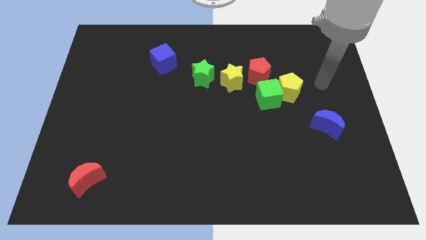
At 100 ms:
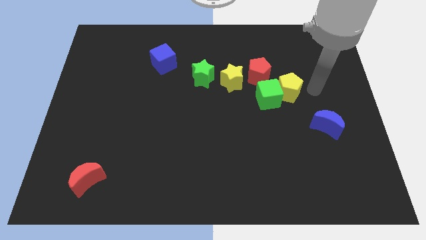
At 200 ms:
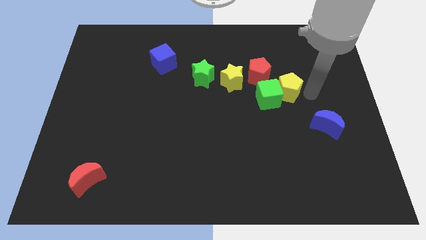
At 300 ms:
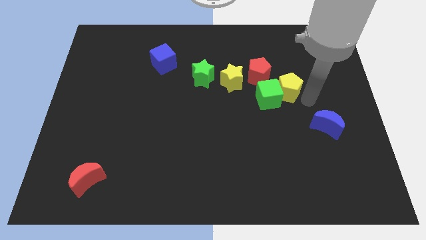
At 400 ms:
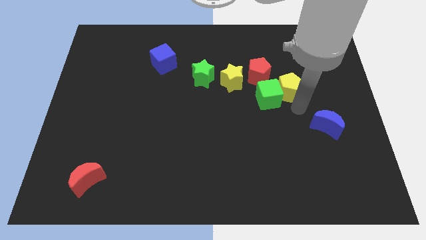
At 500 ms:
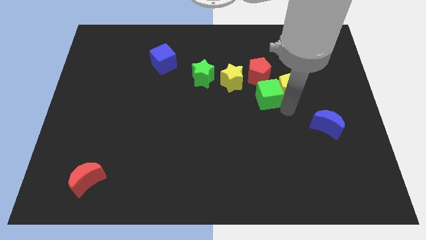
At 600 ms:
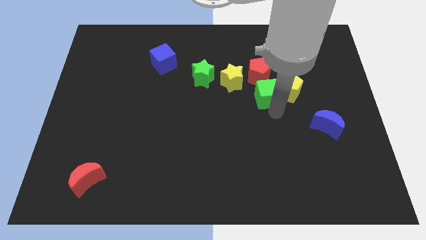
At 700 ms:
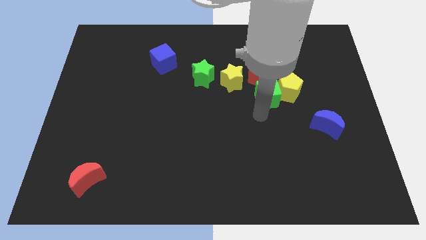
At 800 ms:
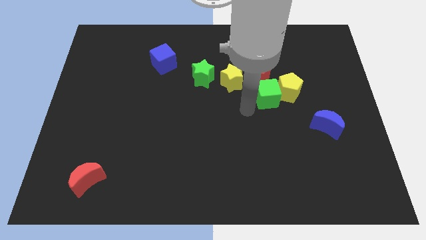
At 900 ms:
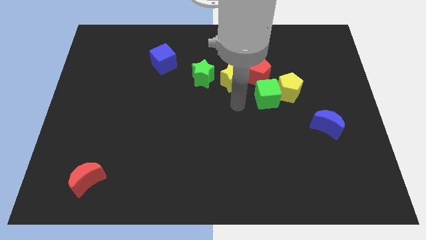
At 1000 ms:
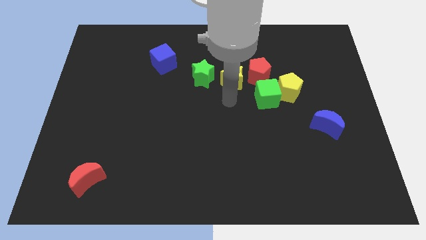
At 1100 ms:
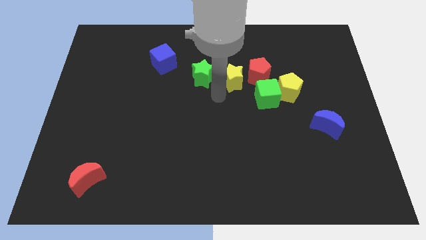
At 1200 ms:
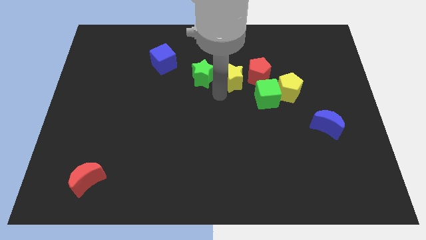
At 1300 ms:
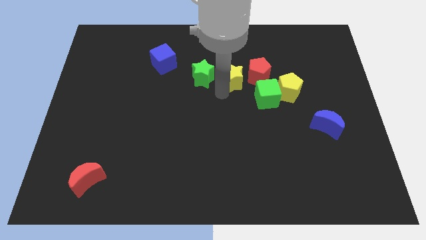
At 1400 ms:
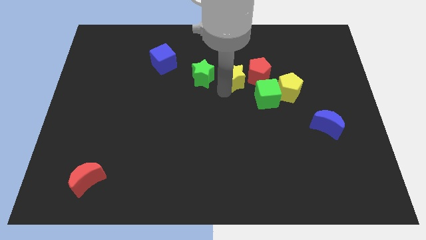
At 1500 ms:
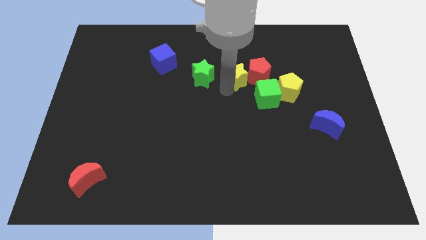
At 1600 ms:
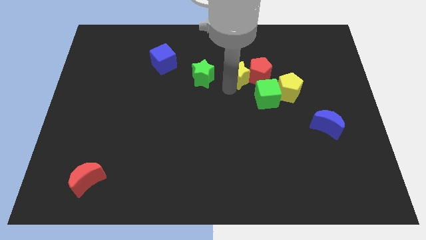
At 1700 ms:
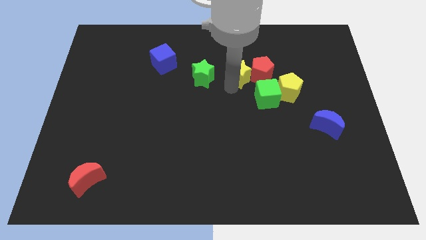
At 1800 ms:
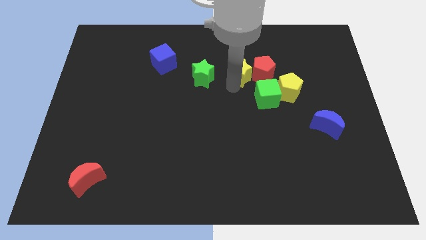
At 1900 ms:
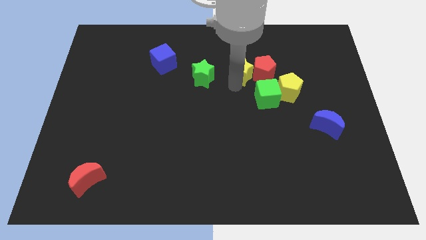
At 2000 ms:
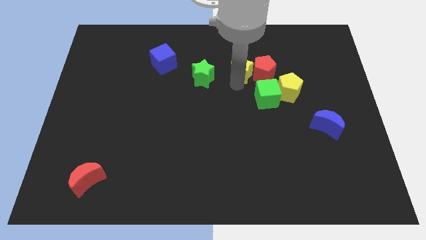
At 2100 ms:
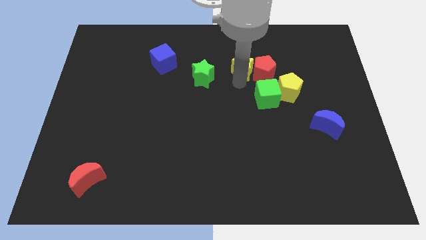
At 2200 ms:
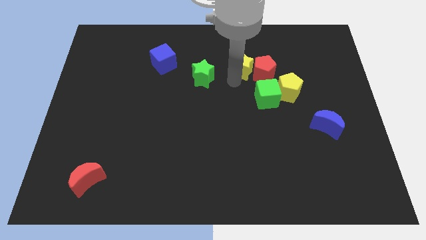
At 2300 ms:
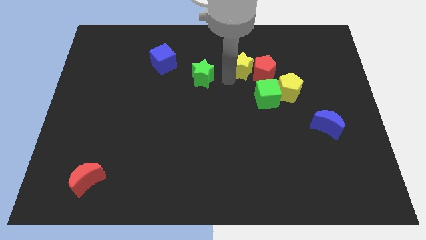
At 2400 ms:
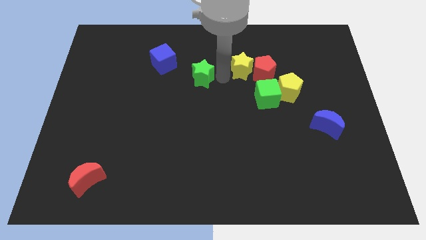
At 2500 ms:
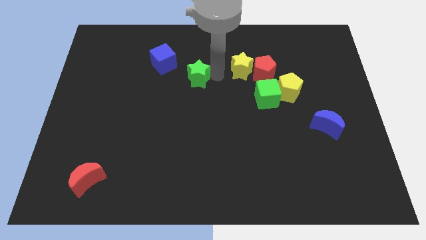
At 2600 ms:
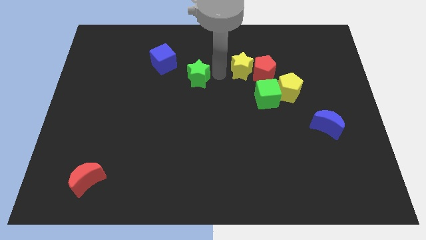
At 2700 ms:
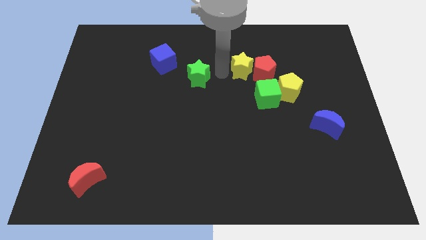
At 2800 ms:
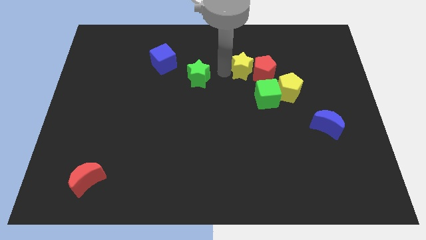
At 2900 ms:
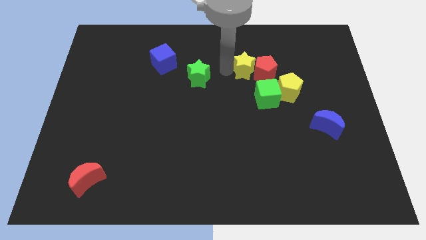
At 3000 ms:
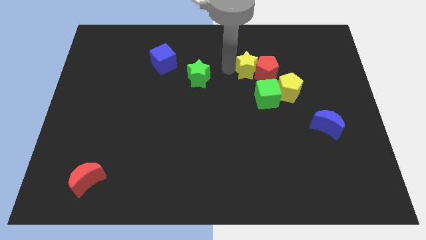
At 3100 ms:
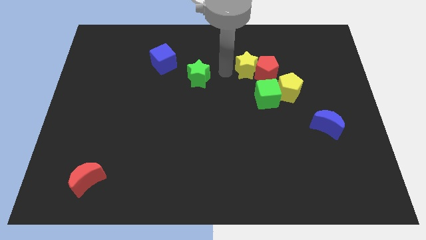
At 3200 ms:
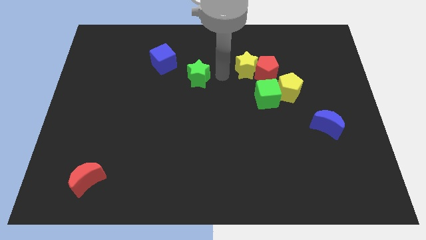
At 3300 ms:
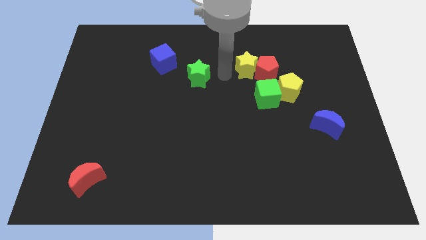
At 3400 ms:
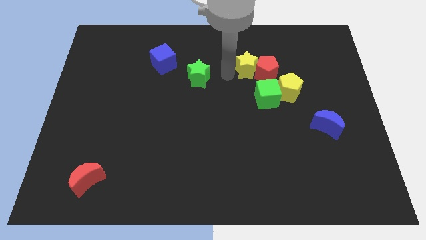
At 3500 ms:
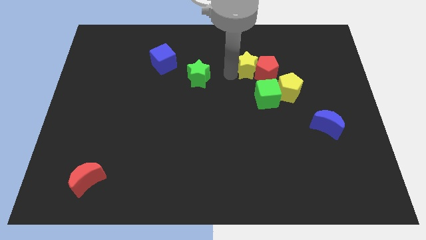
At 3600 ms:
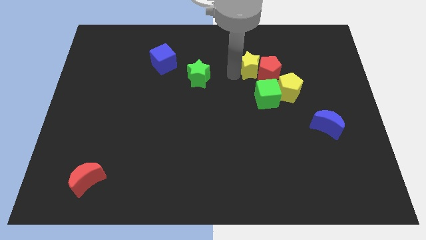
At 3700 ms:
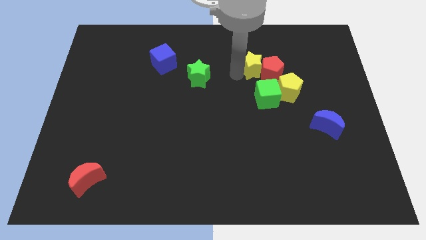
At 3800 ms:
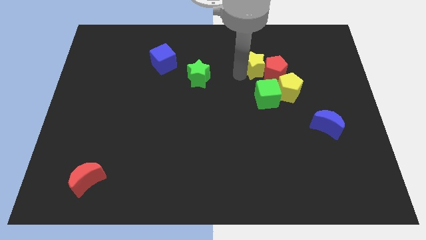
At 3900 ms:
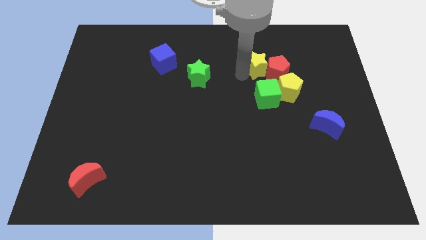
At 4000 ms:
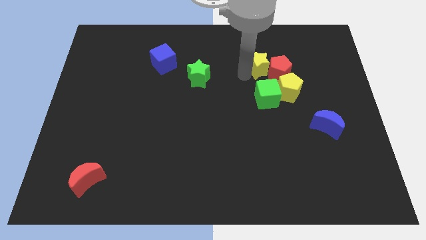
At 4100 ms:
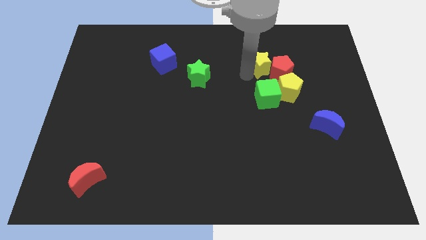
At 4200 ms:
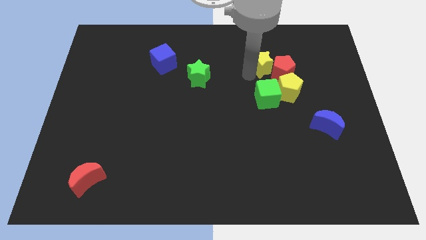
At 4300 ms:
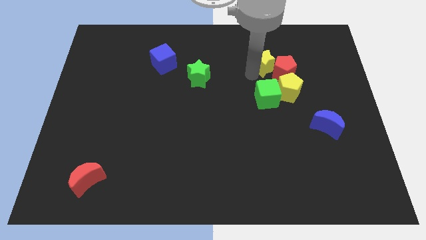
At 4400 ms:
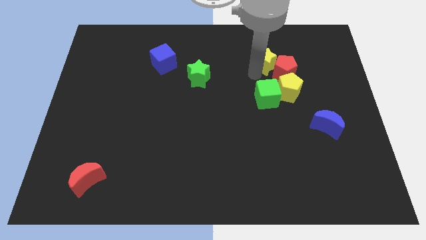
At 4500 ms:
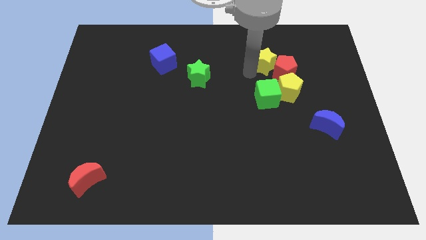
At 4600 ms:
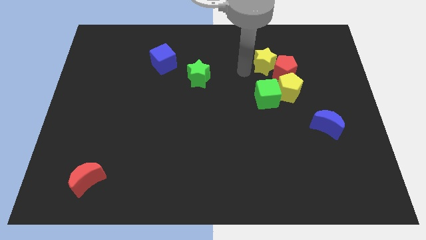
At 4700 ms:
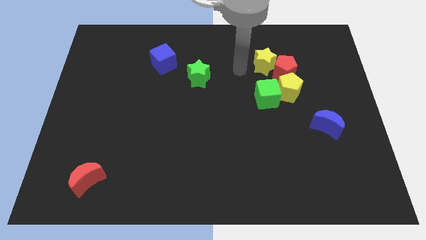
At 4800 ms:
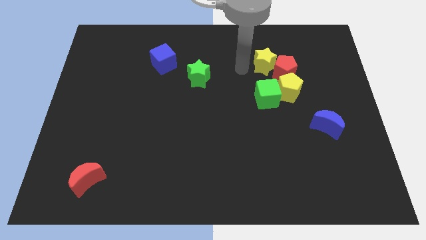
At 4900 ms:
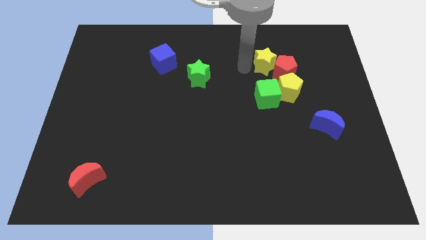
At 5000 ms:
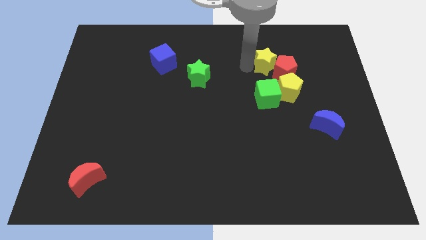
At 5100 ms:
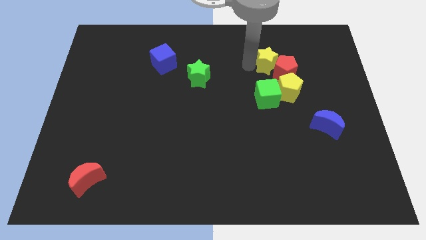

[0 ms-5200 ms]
push the yellow star above the yellow pentagon

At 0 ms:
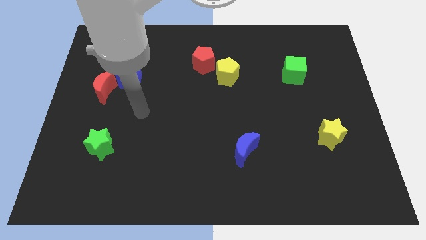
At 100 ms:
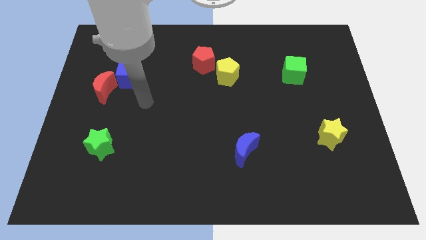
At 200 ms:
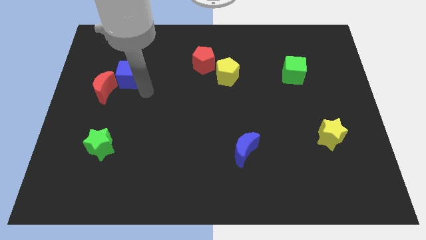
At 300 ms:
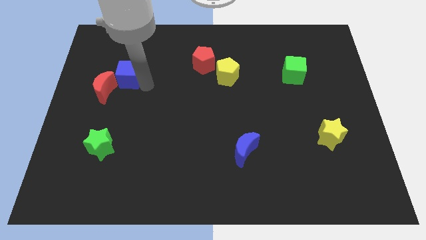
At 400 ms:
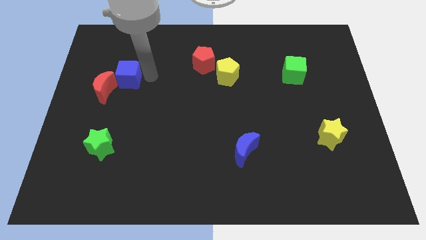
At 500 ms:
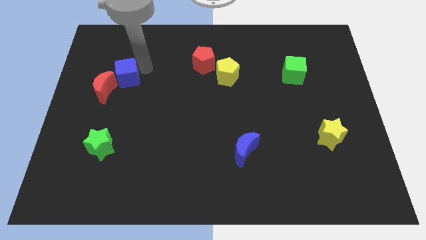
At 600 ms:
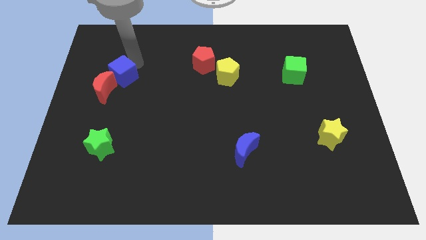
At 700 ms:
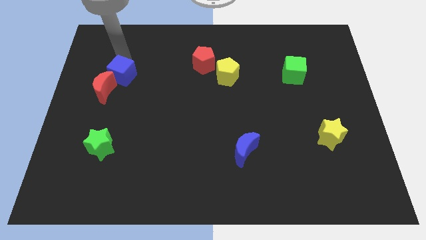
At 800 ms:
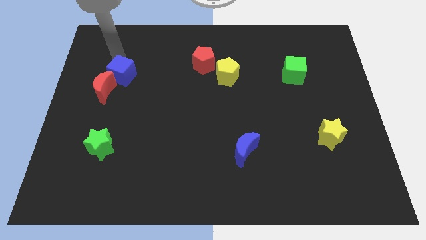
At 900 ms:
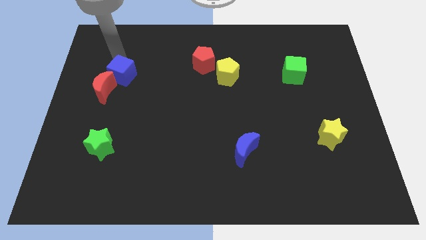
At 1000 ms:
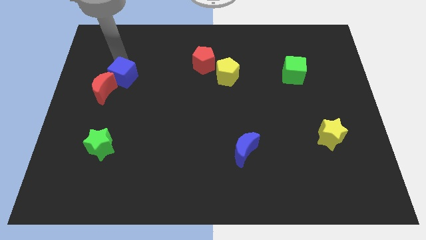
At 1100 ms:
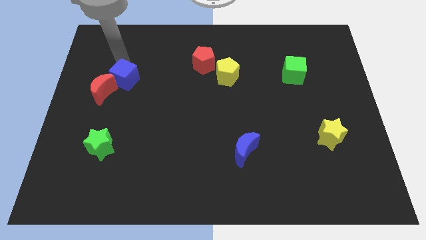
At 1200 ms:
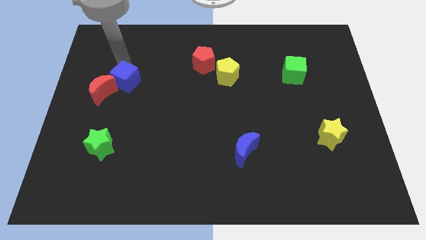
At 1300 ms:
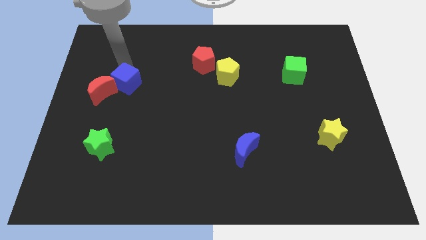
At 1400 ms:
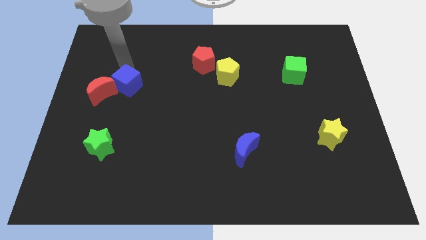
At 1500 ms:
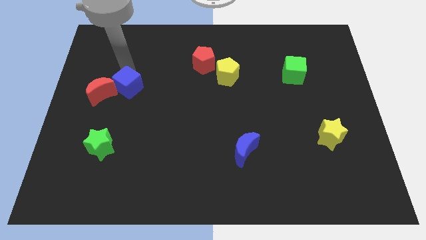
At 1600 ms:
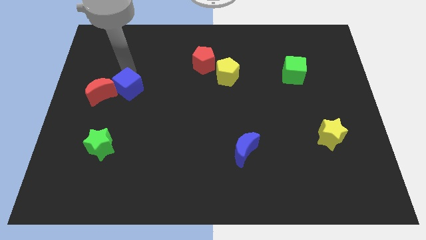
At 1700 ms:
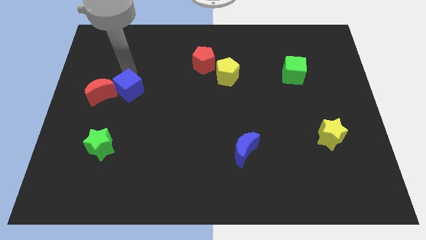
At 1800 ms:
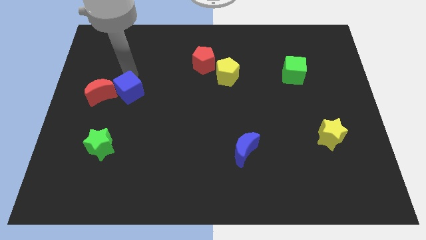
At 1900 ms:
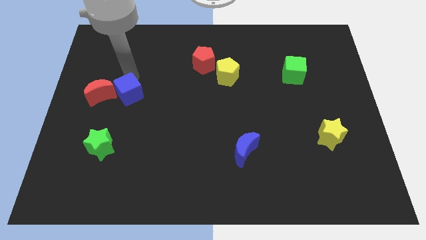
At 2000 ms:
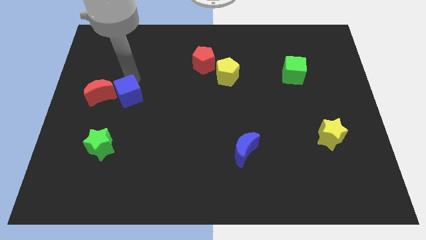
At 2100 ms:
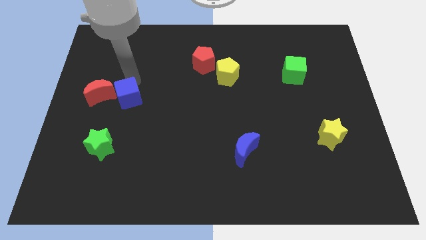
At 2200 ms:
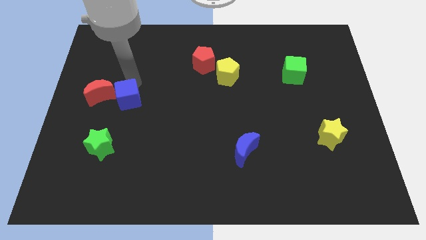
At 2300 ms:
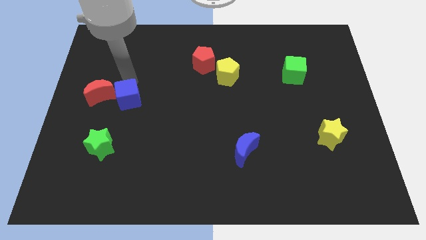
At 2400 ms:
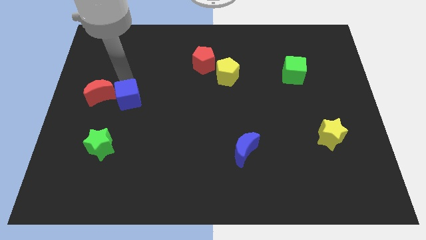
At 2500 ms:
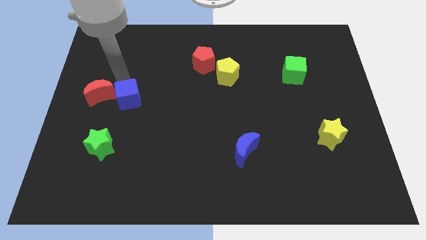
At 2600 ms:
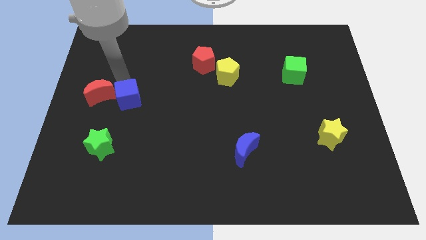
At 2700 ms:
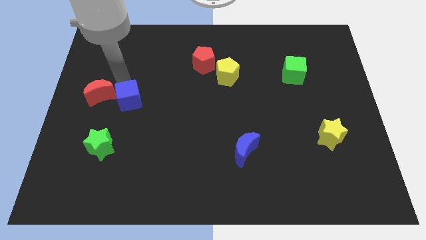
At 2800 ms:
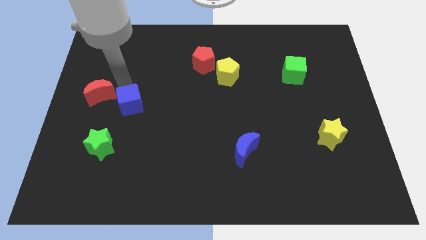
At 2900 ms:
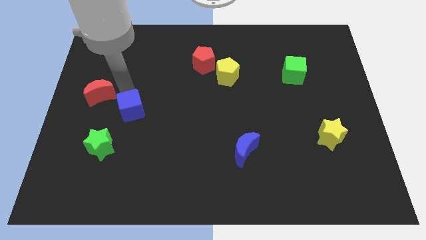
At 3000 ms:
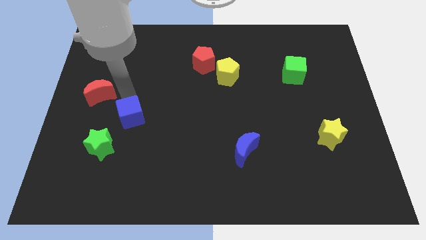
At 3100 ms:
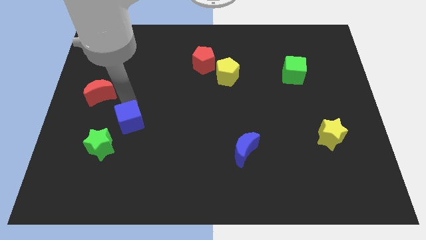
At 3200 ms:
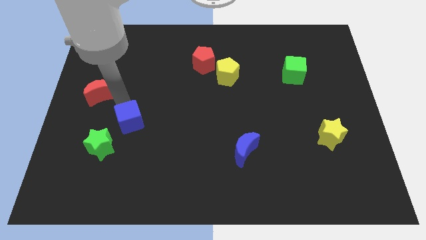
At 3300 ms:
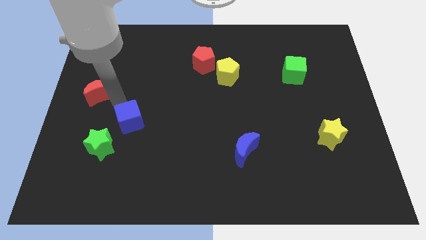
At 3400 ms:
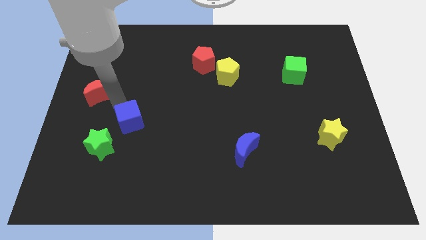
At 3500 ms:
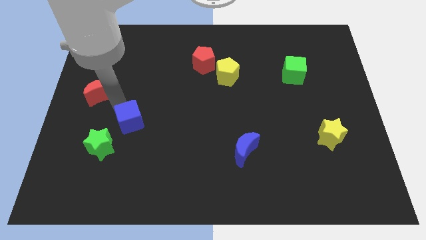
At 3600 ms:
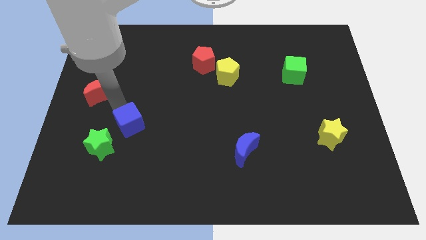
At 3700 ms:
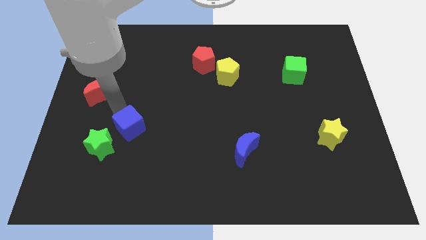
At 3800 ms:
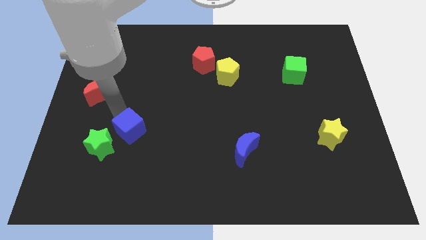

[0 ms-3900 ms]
move the blue cube to the right side of the green star
